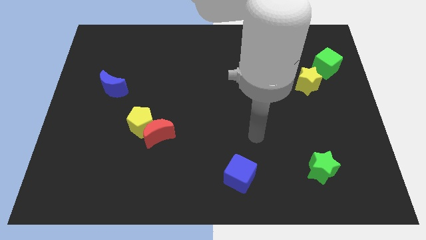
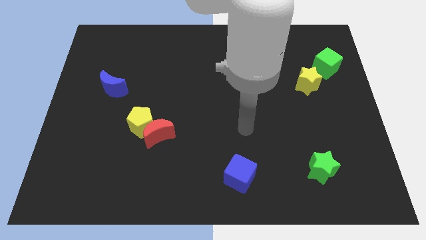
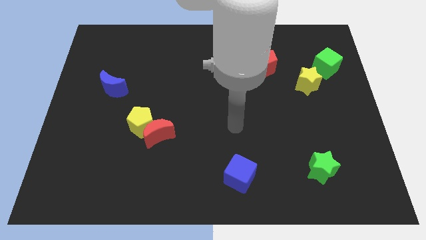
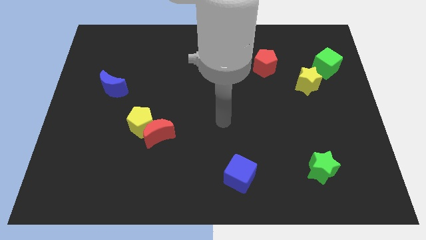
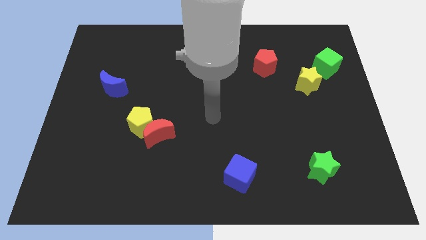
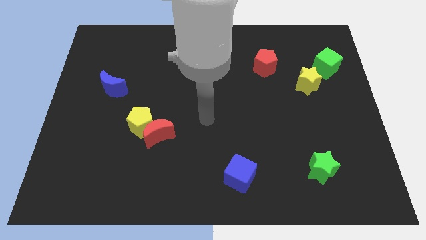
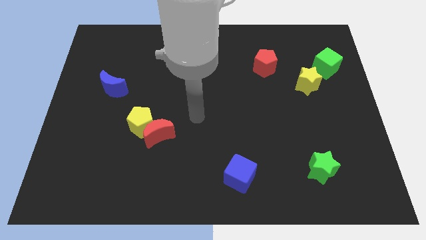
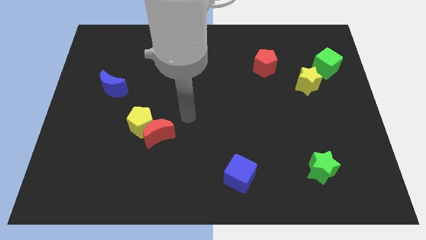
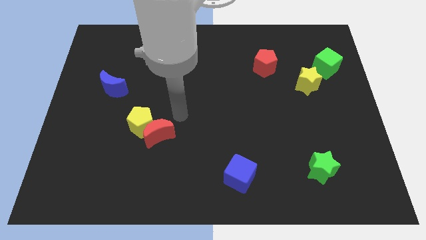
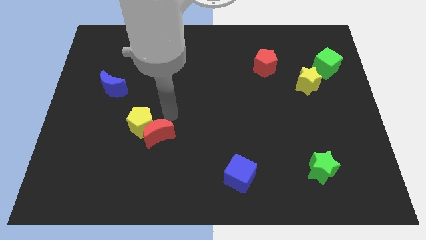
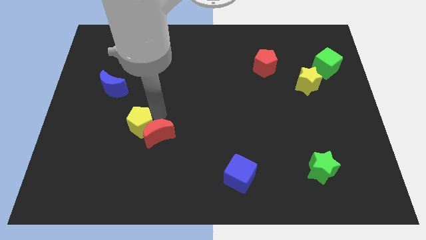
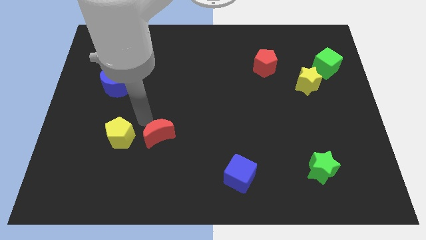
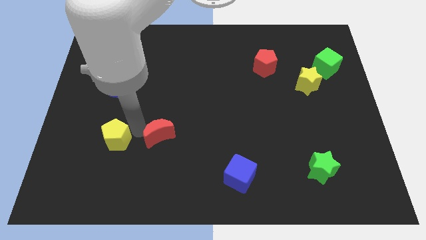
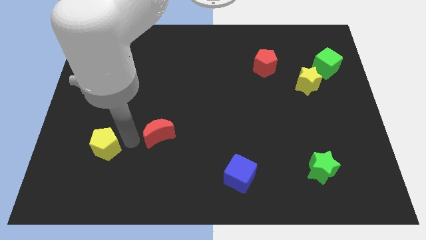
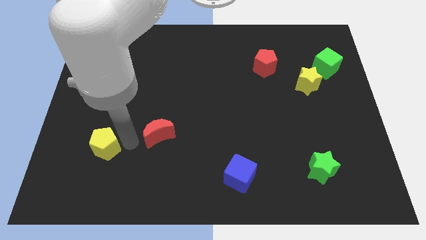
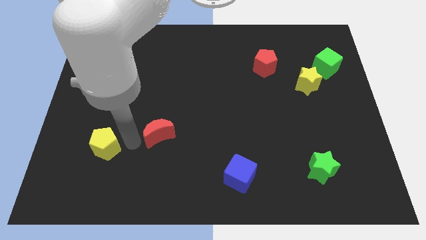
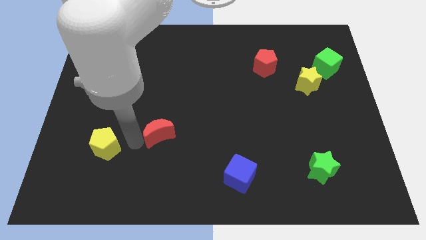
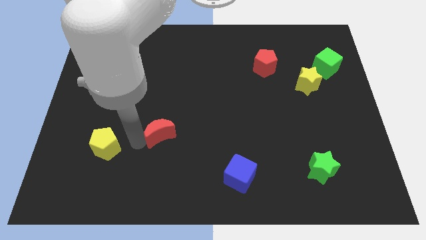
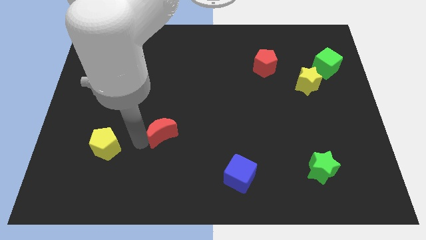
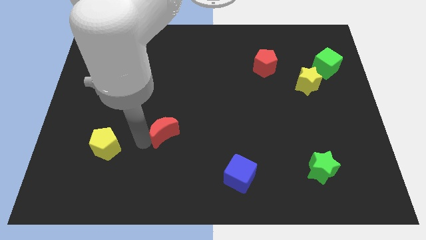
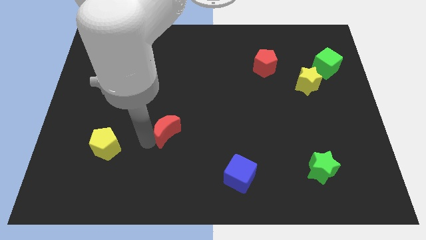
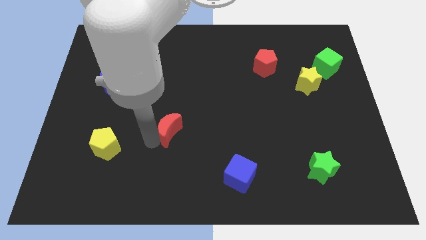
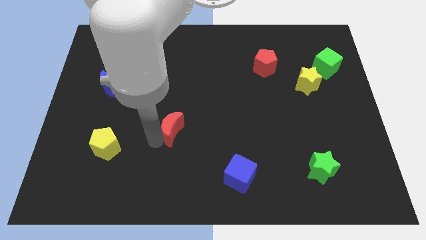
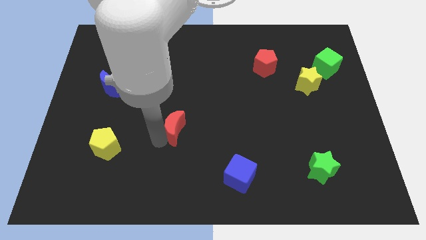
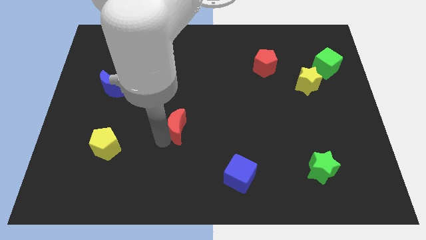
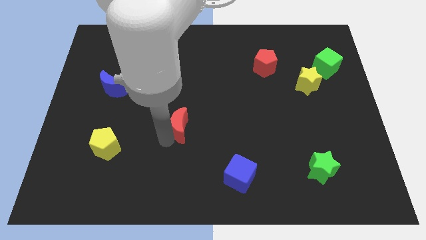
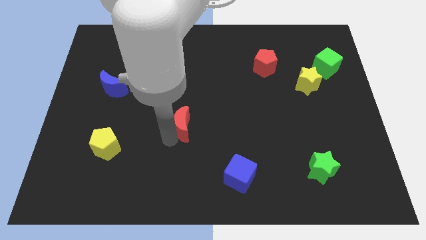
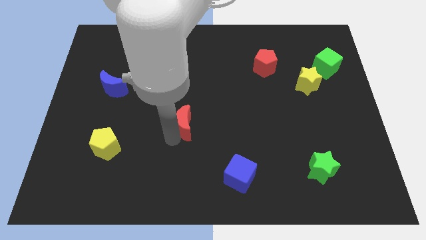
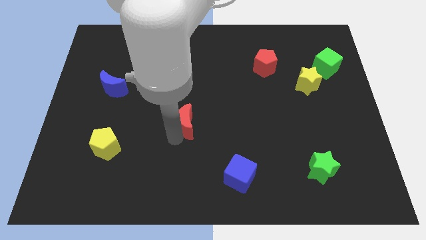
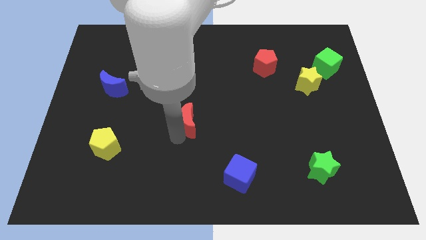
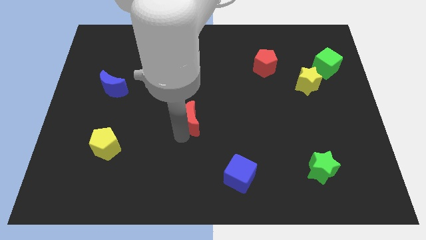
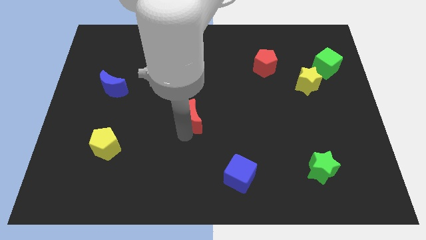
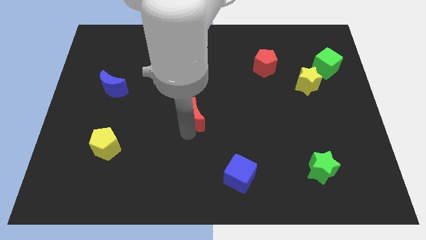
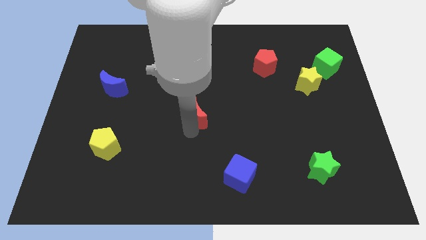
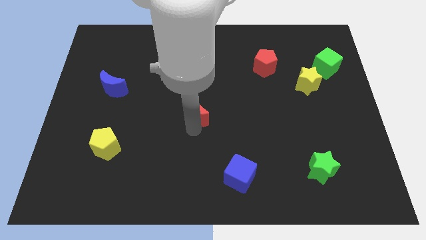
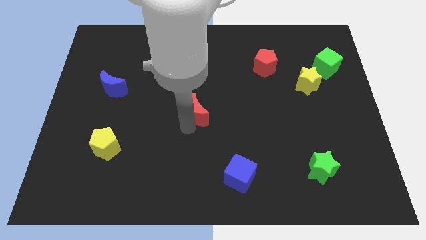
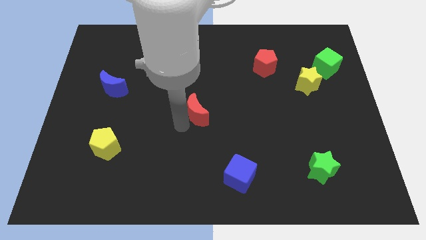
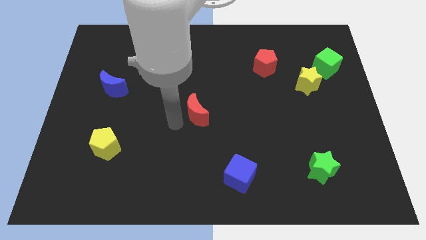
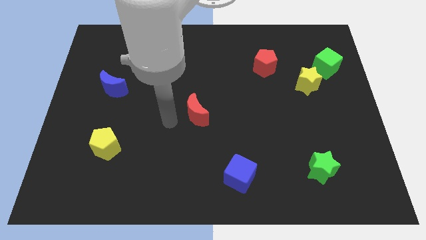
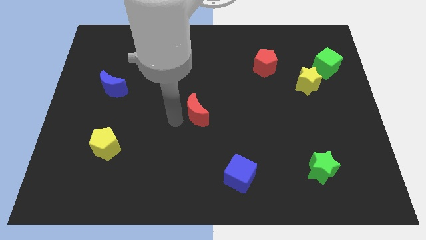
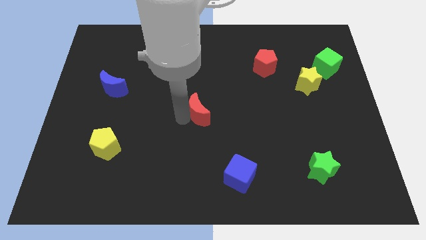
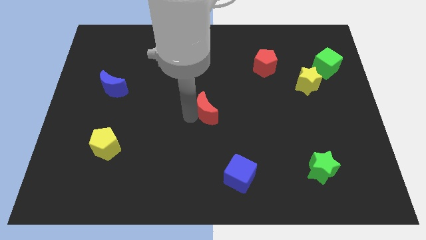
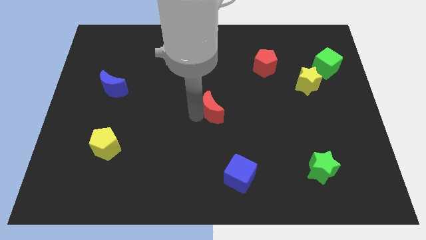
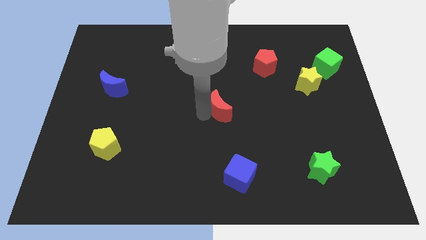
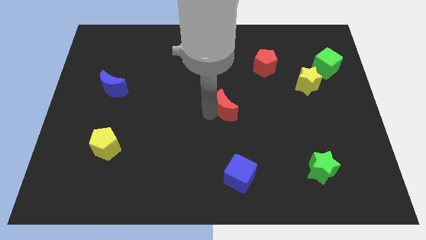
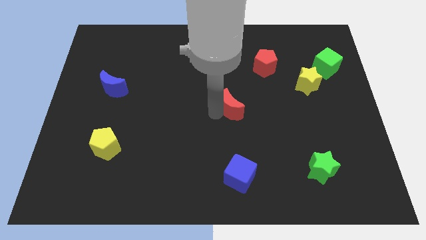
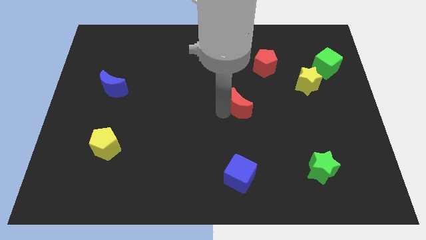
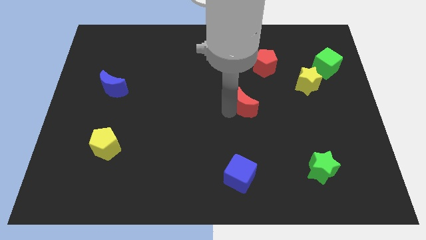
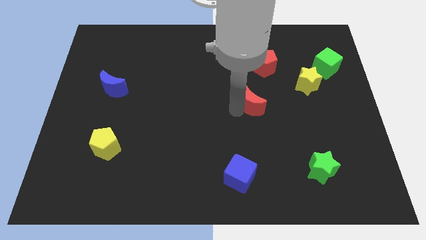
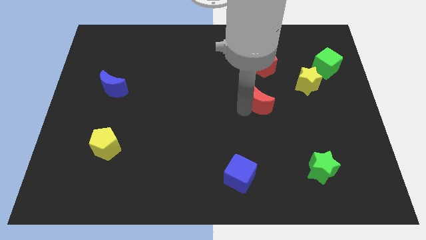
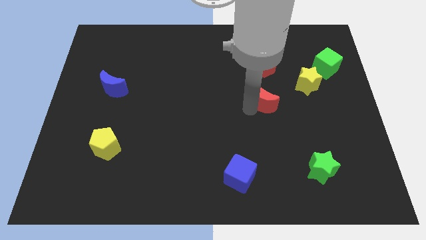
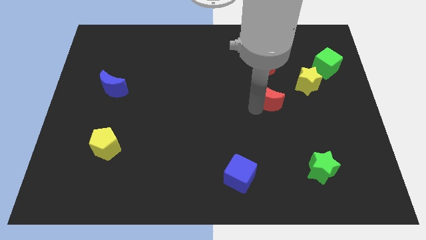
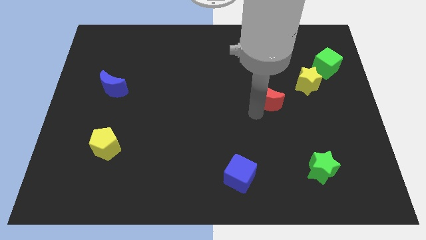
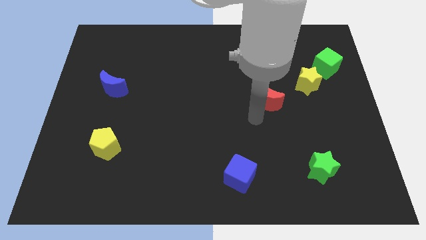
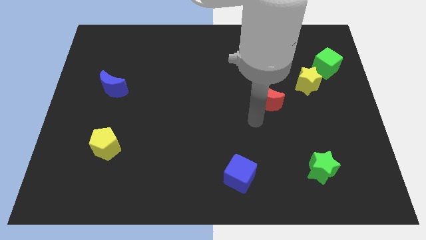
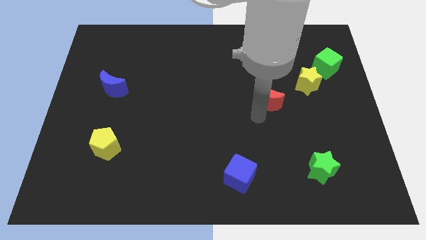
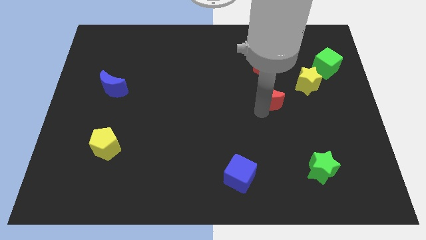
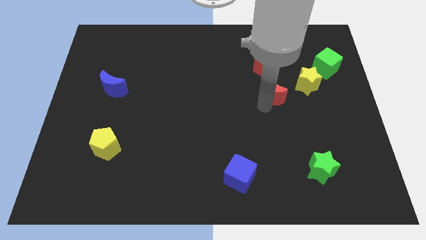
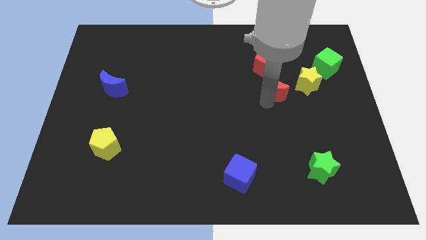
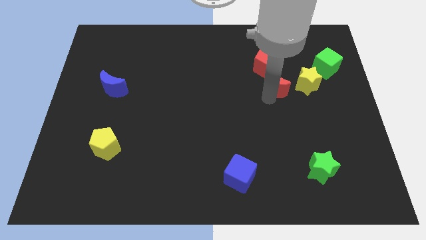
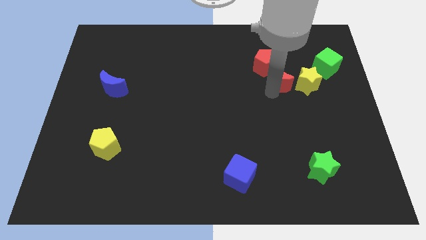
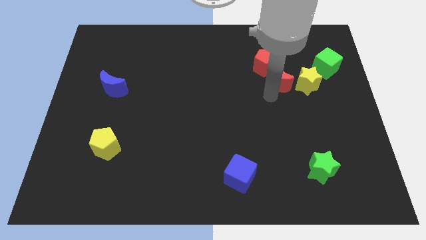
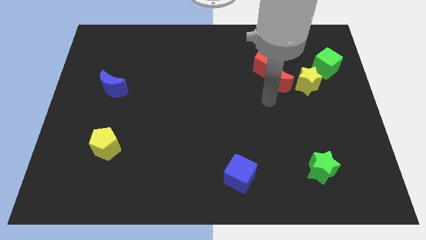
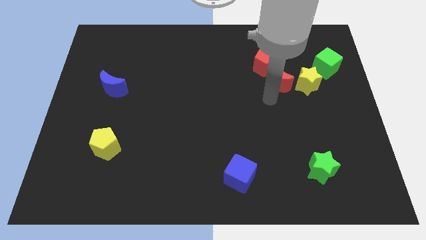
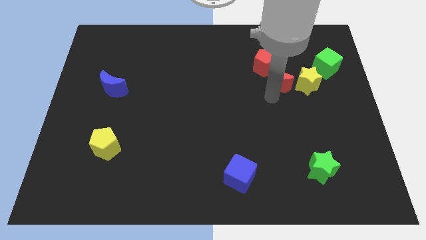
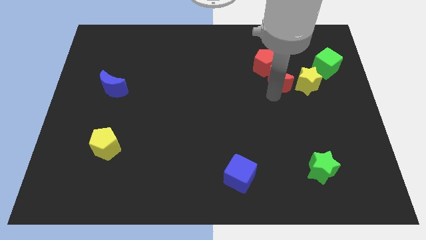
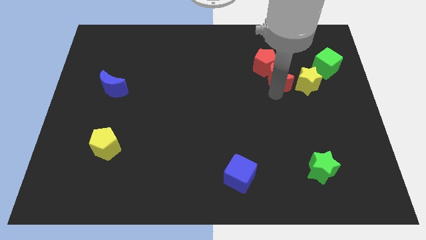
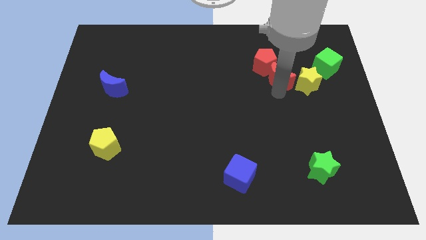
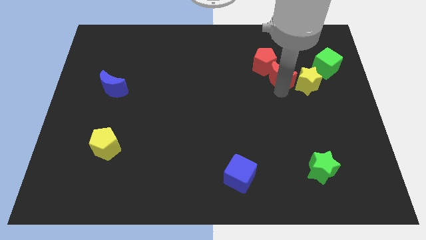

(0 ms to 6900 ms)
put the red moon to the left side of the green cube
